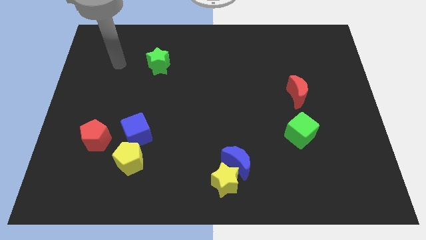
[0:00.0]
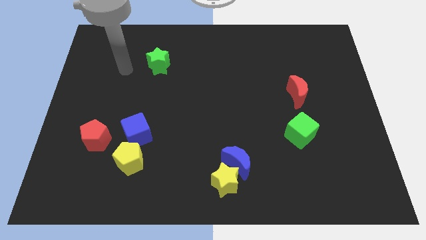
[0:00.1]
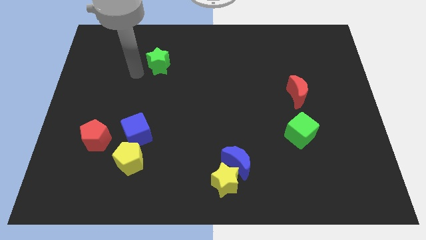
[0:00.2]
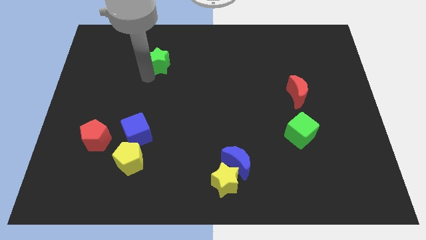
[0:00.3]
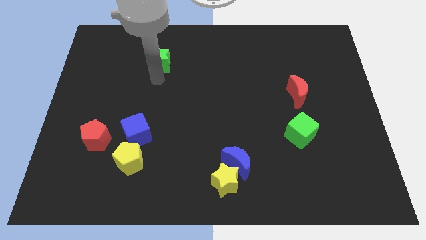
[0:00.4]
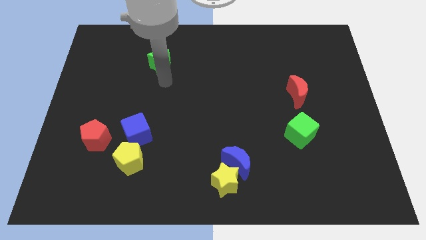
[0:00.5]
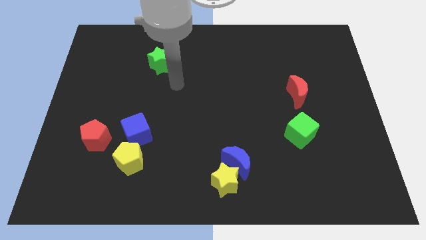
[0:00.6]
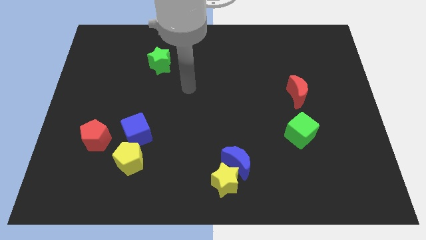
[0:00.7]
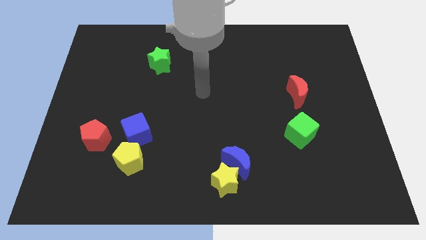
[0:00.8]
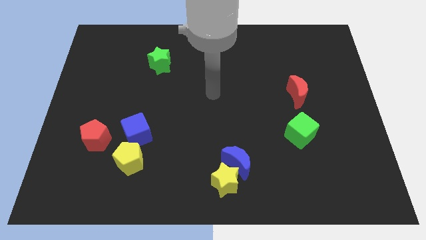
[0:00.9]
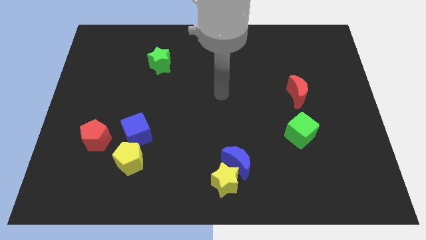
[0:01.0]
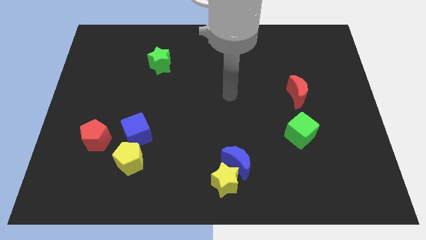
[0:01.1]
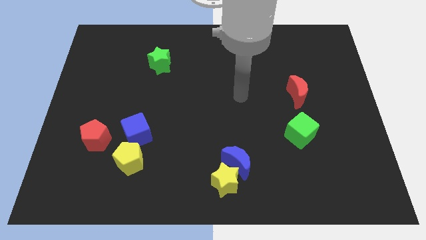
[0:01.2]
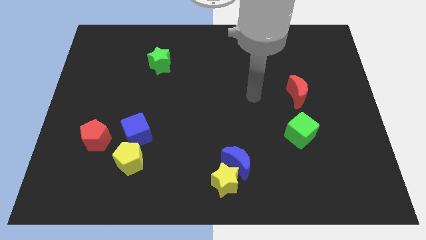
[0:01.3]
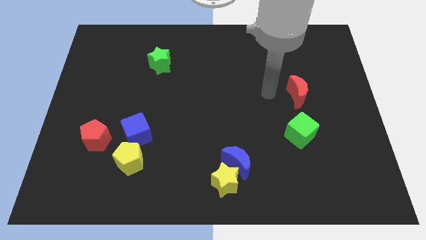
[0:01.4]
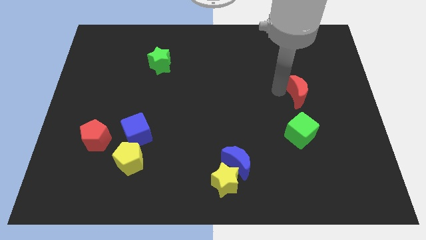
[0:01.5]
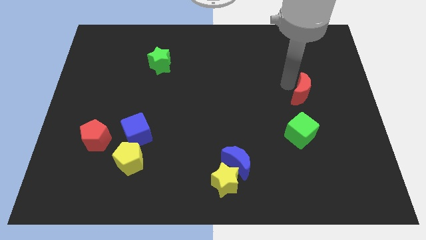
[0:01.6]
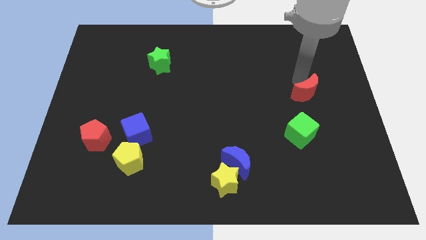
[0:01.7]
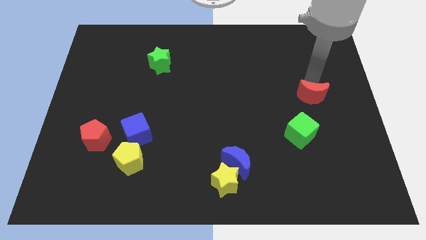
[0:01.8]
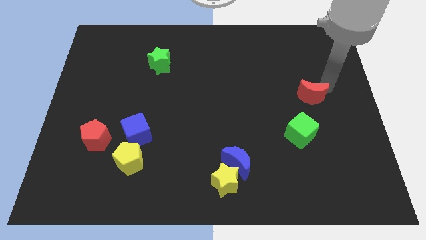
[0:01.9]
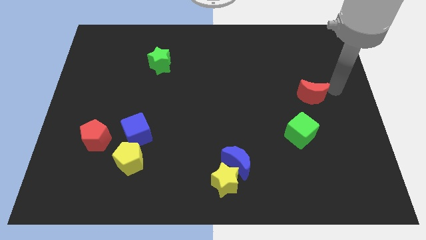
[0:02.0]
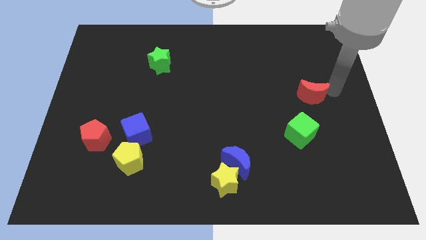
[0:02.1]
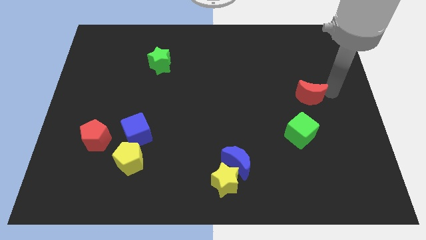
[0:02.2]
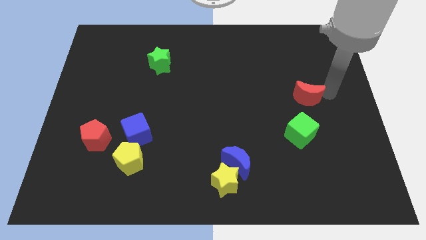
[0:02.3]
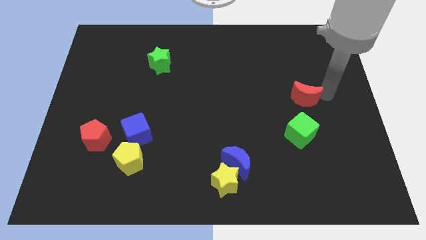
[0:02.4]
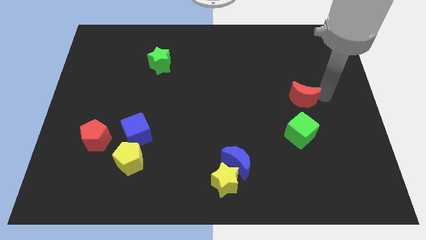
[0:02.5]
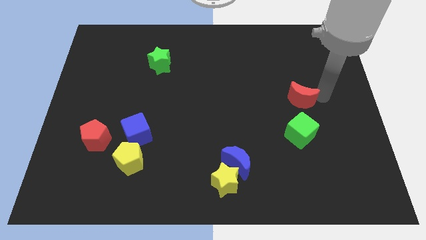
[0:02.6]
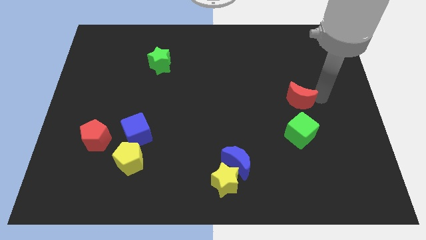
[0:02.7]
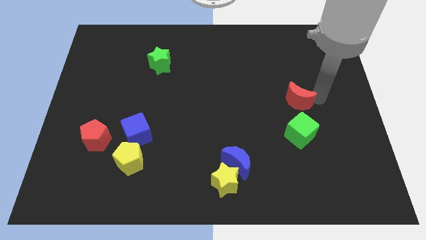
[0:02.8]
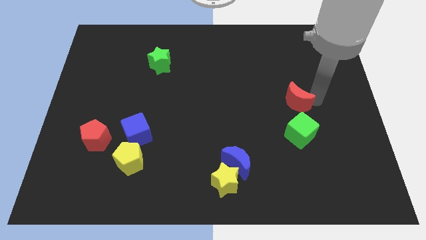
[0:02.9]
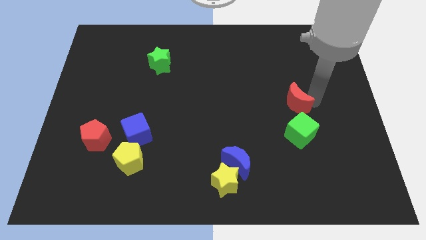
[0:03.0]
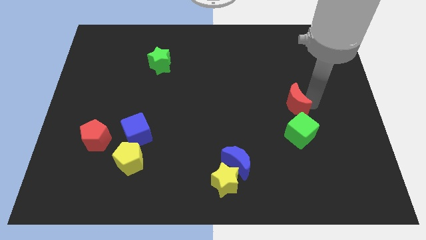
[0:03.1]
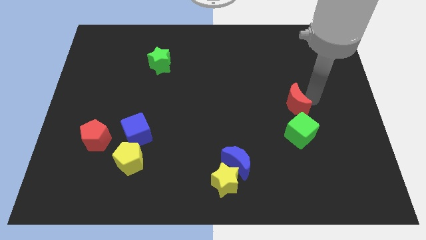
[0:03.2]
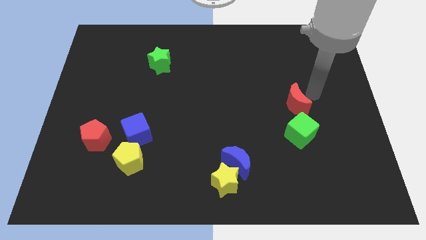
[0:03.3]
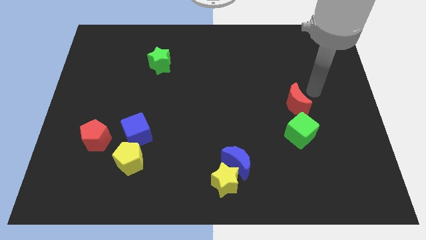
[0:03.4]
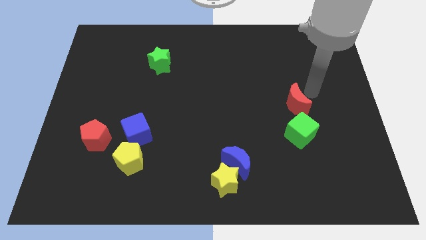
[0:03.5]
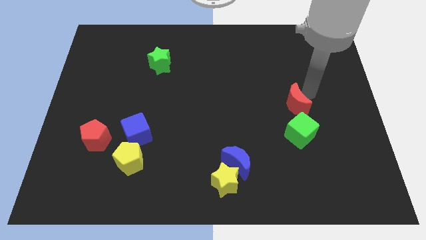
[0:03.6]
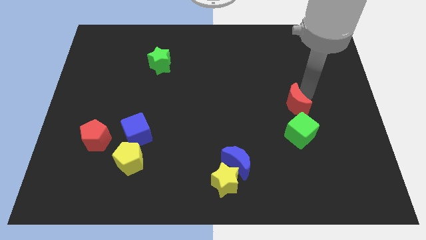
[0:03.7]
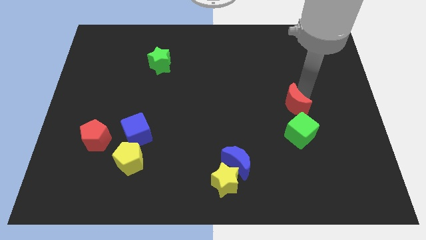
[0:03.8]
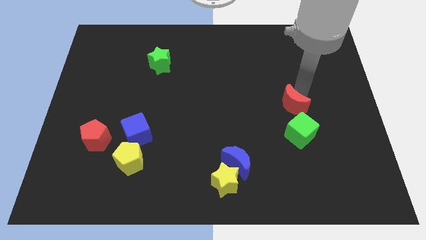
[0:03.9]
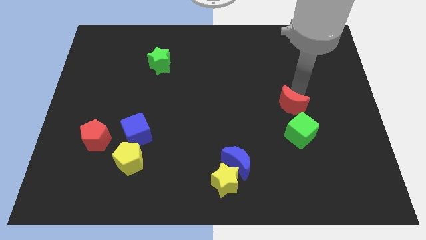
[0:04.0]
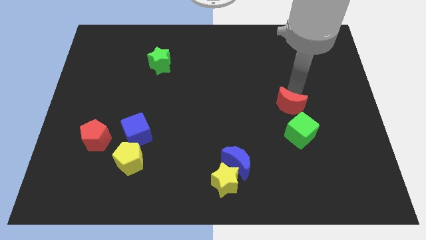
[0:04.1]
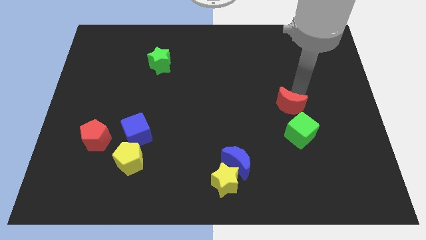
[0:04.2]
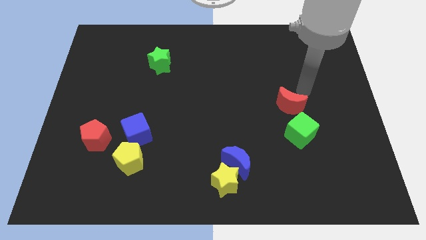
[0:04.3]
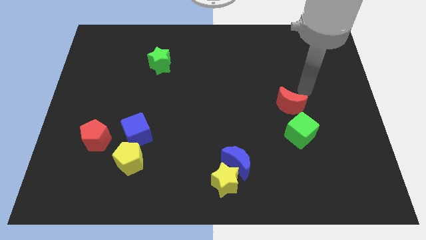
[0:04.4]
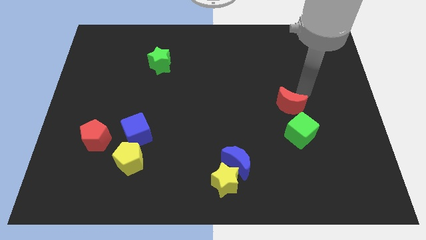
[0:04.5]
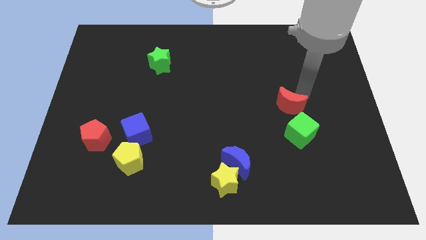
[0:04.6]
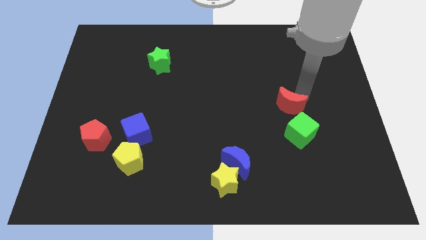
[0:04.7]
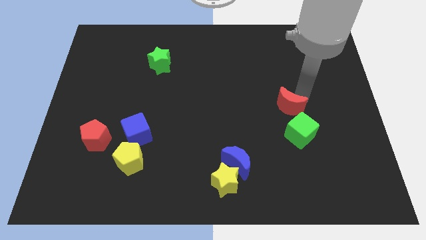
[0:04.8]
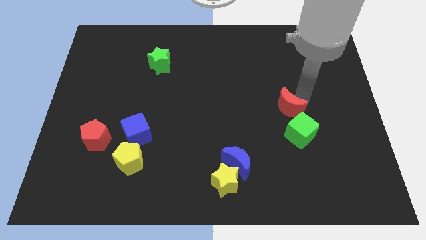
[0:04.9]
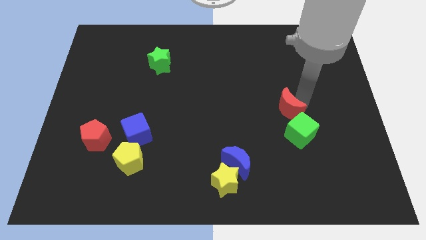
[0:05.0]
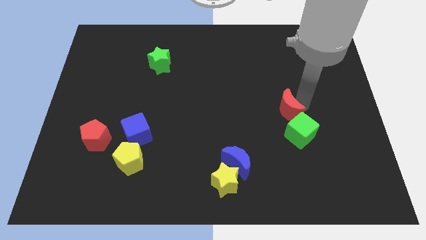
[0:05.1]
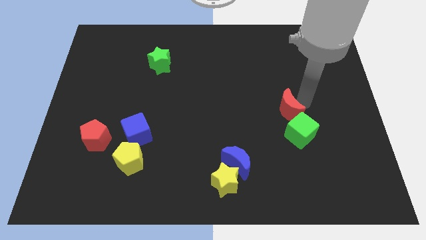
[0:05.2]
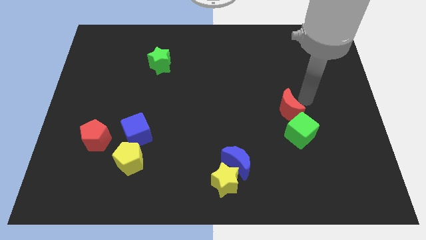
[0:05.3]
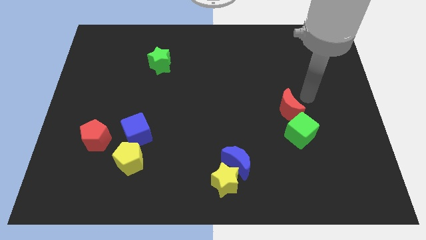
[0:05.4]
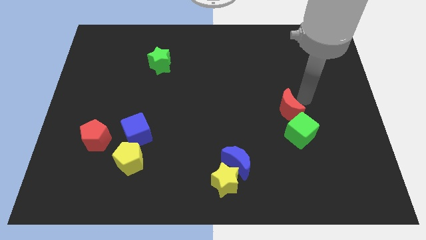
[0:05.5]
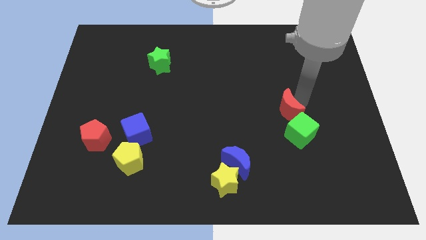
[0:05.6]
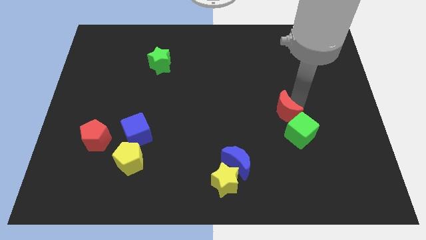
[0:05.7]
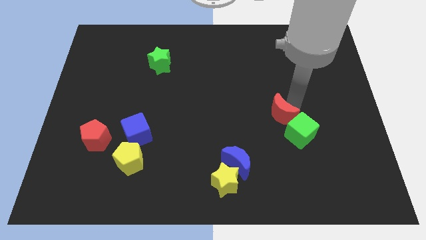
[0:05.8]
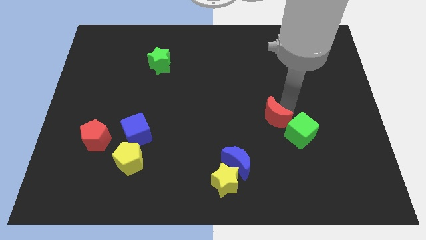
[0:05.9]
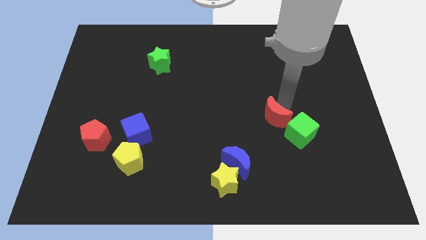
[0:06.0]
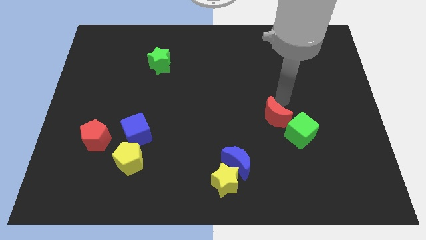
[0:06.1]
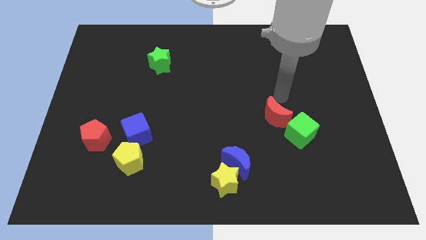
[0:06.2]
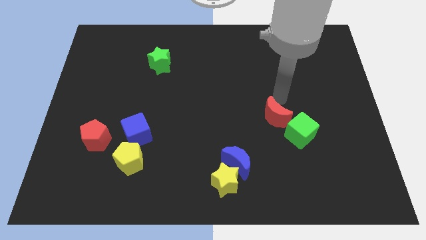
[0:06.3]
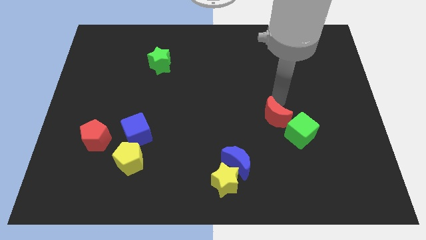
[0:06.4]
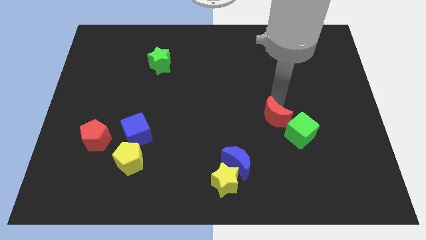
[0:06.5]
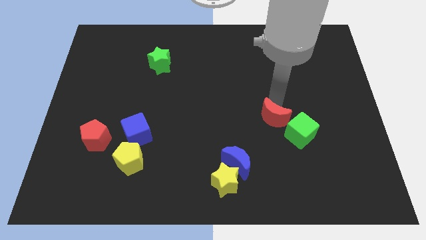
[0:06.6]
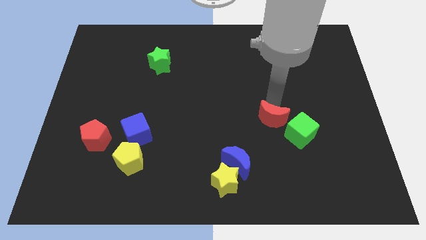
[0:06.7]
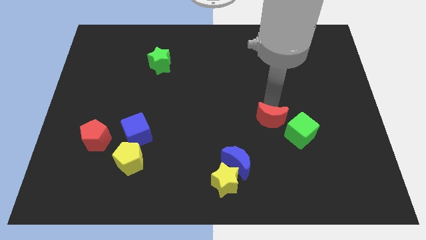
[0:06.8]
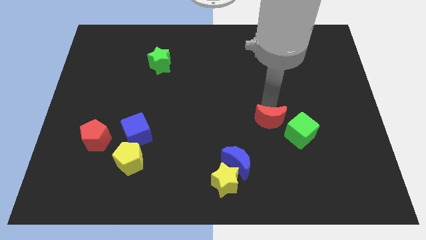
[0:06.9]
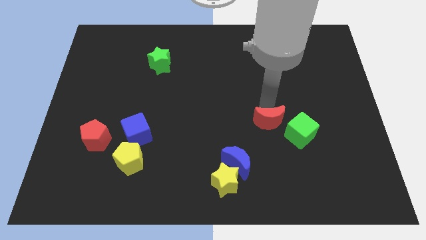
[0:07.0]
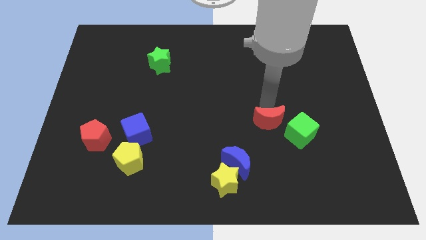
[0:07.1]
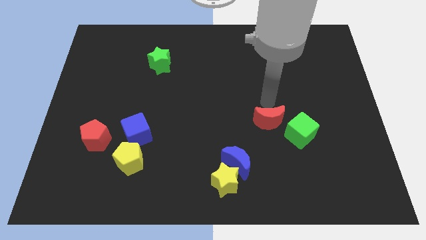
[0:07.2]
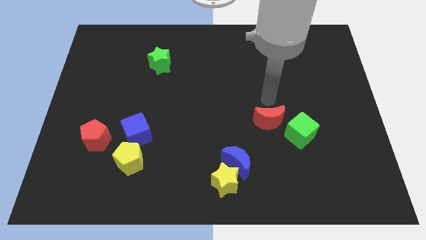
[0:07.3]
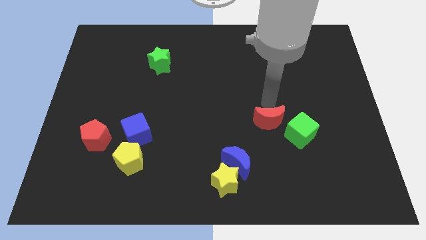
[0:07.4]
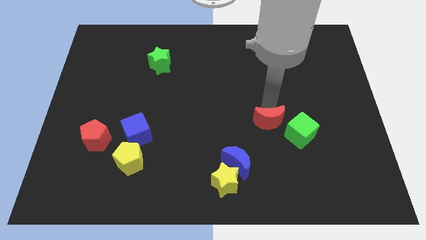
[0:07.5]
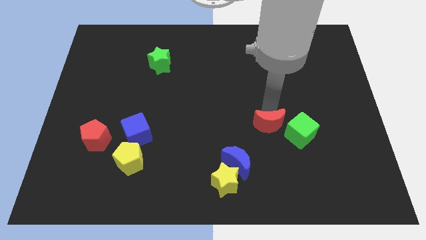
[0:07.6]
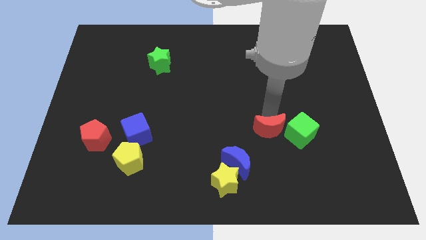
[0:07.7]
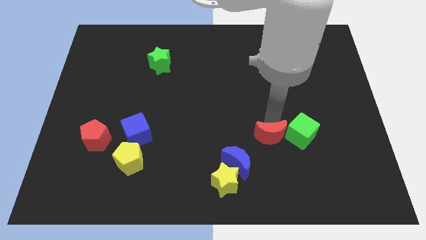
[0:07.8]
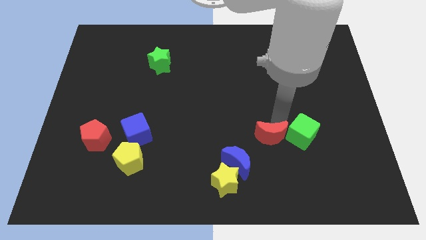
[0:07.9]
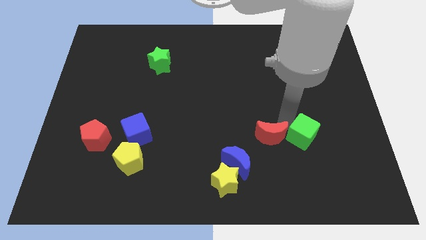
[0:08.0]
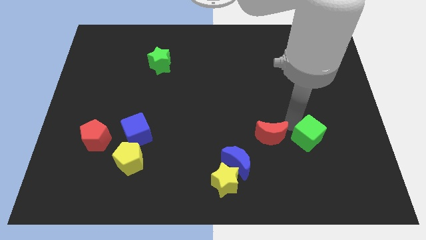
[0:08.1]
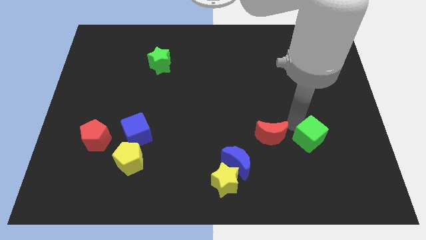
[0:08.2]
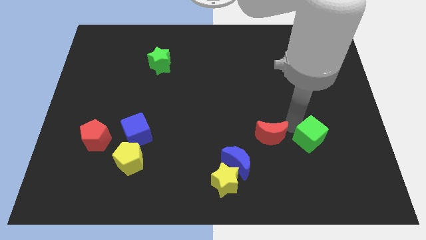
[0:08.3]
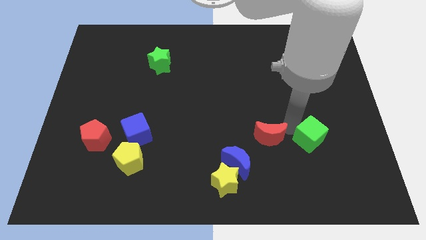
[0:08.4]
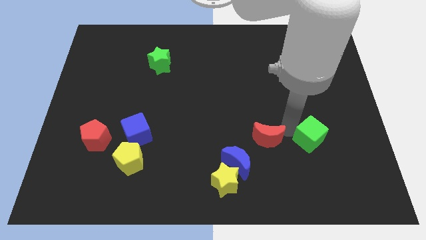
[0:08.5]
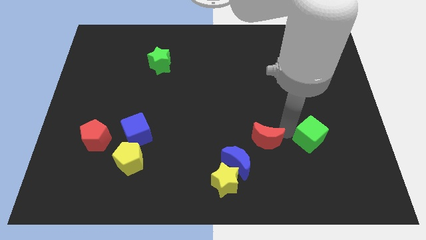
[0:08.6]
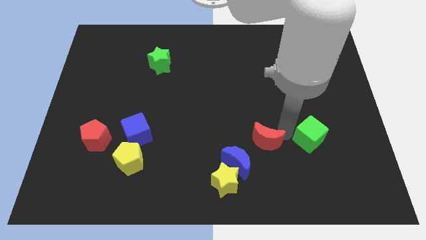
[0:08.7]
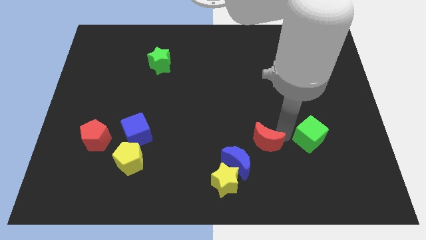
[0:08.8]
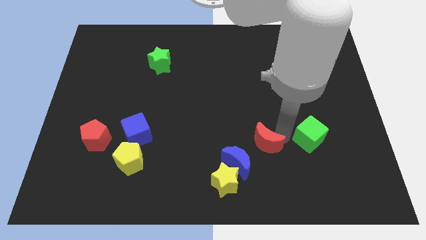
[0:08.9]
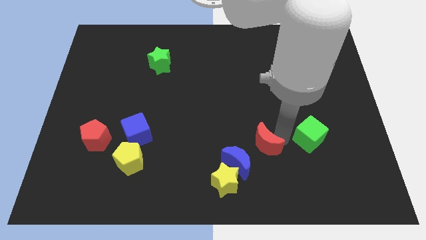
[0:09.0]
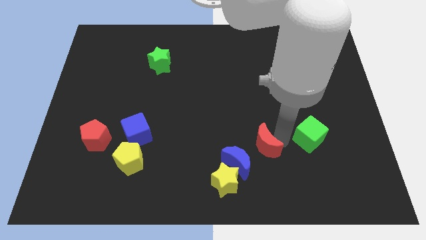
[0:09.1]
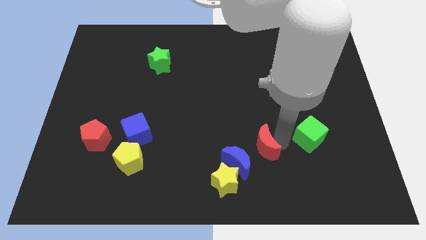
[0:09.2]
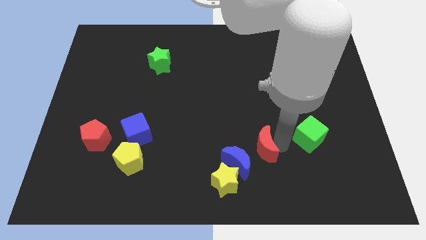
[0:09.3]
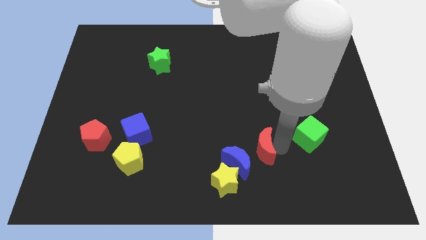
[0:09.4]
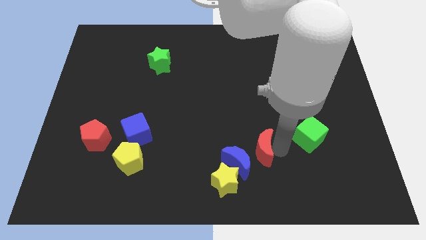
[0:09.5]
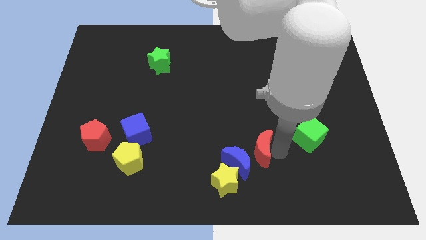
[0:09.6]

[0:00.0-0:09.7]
put the red moon next to the blue moon
